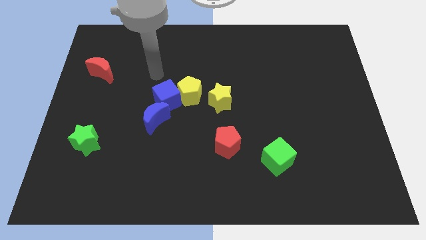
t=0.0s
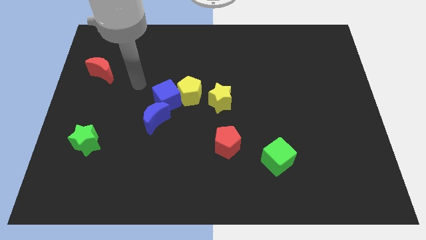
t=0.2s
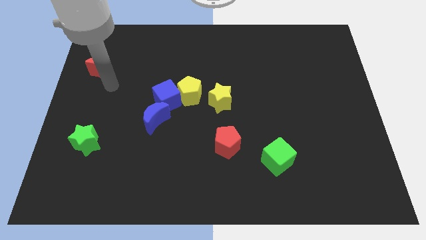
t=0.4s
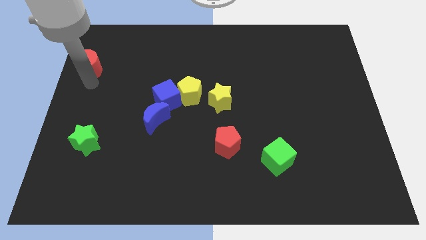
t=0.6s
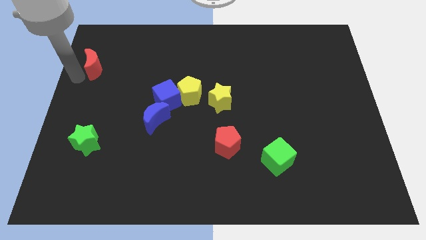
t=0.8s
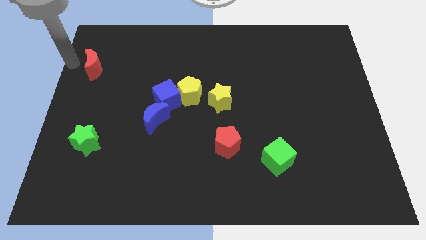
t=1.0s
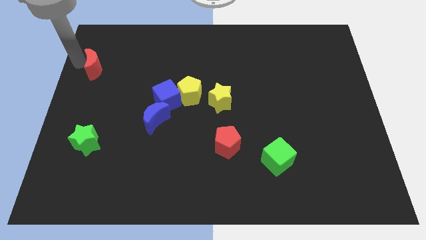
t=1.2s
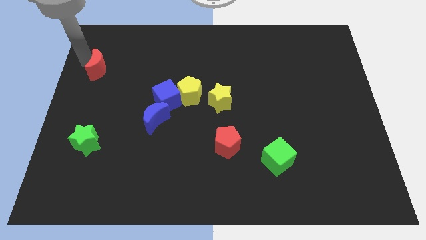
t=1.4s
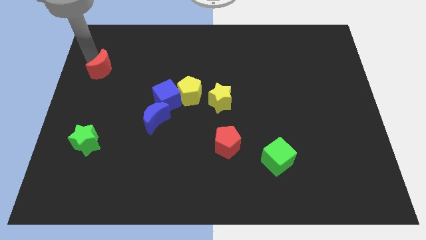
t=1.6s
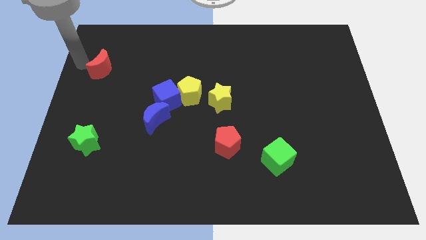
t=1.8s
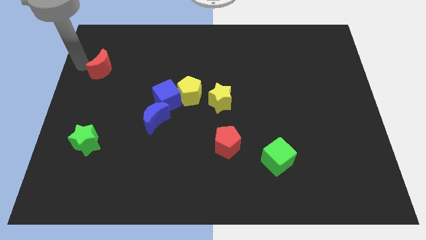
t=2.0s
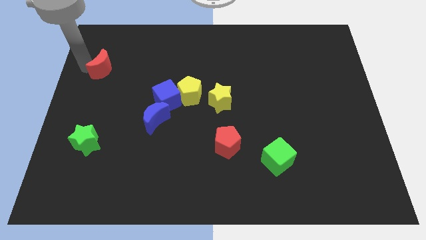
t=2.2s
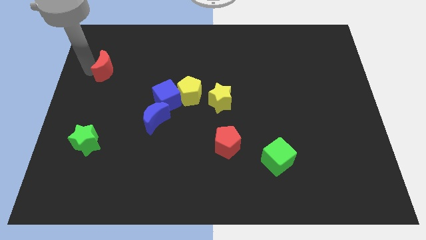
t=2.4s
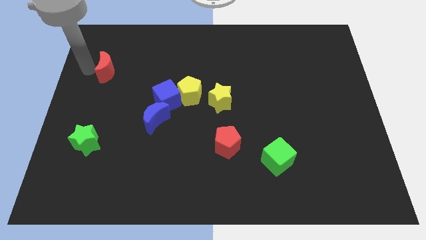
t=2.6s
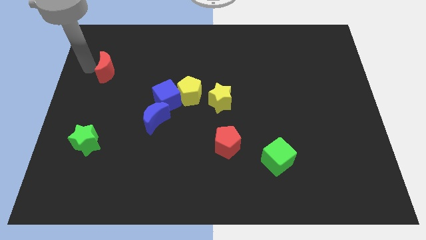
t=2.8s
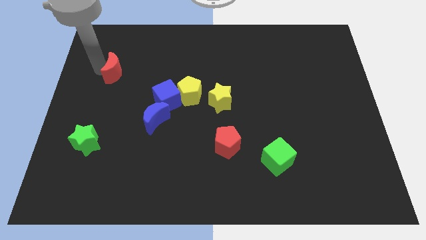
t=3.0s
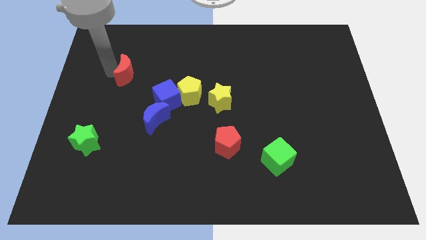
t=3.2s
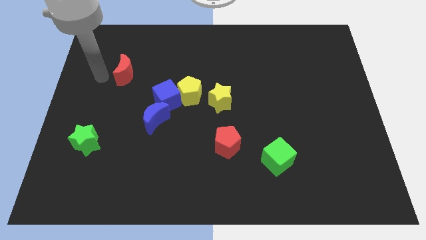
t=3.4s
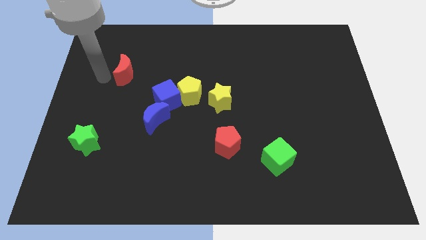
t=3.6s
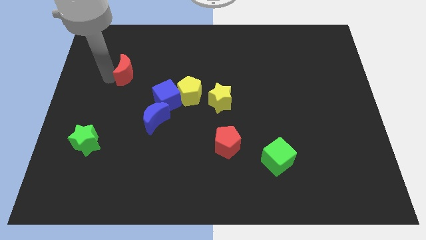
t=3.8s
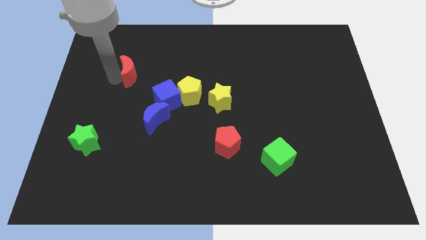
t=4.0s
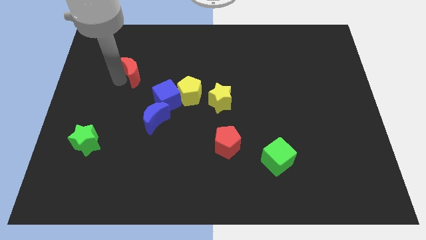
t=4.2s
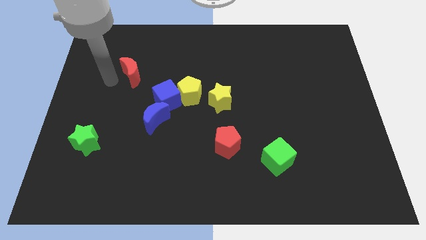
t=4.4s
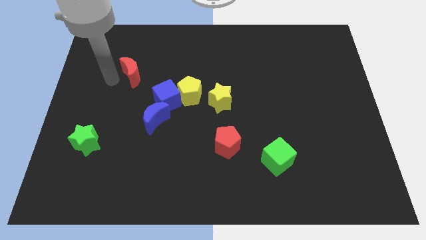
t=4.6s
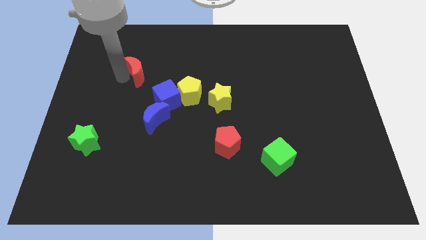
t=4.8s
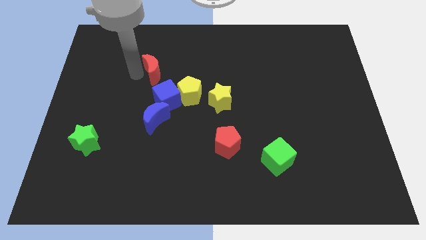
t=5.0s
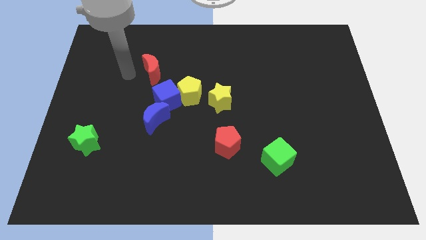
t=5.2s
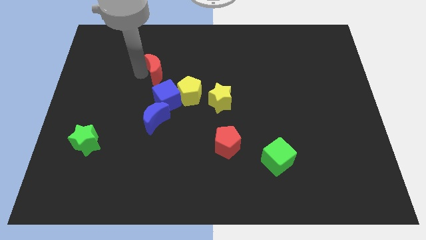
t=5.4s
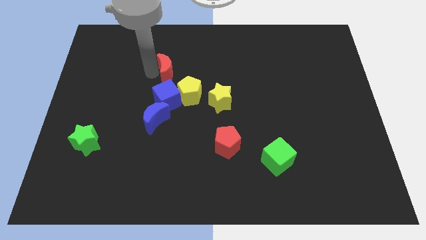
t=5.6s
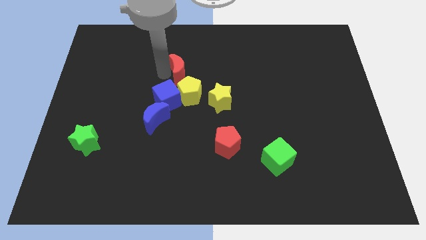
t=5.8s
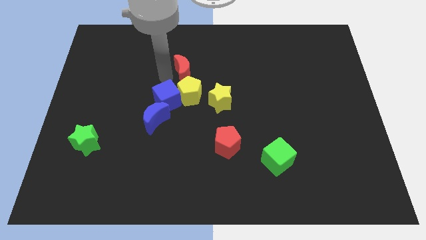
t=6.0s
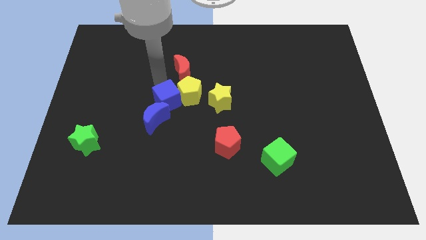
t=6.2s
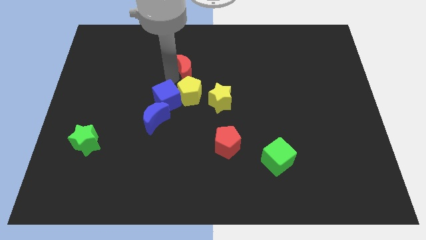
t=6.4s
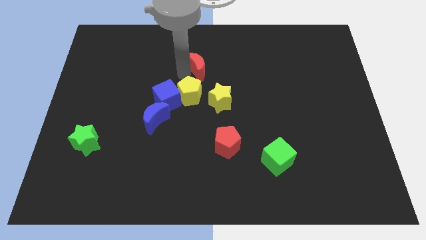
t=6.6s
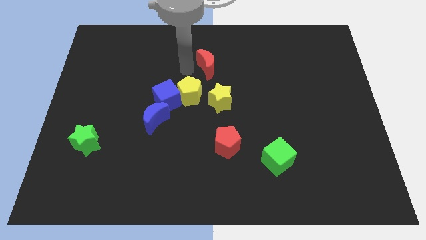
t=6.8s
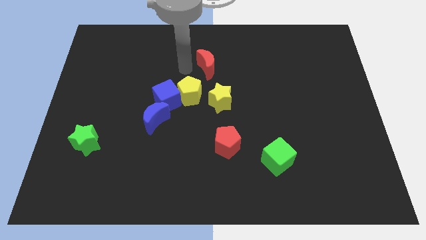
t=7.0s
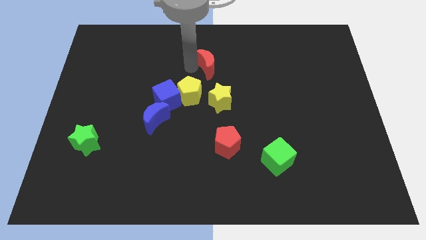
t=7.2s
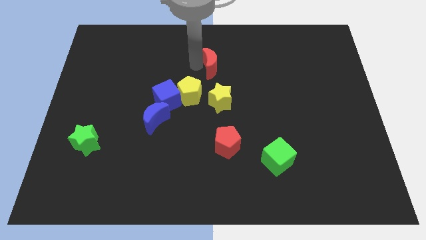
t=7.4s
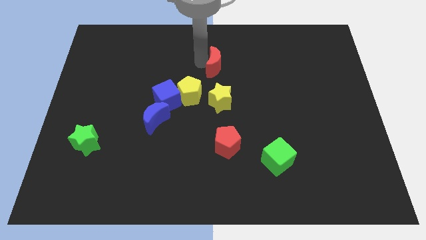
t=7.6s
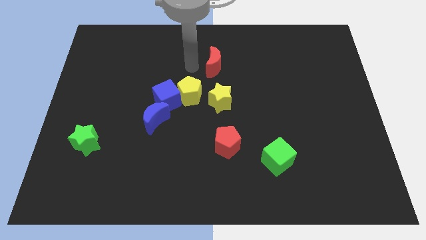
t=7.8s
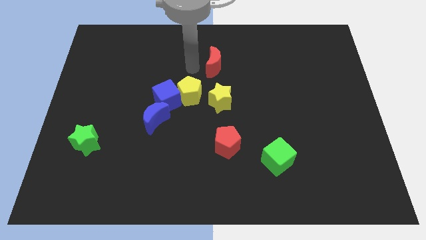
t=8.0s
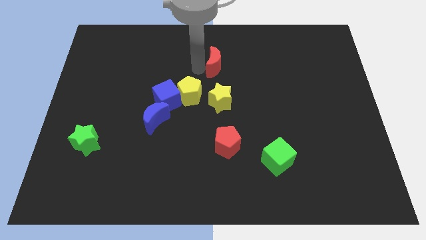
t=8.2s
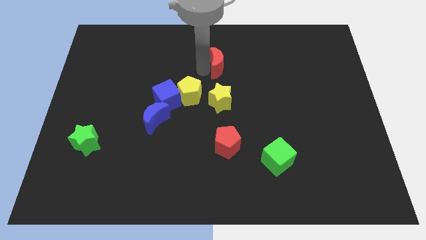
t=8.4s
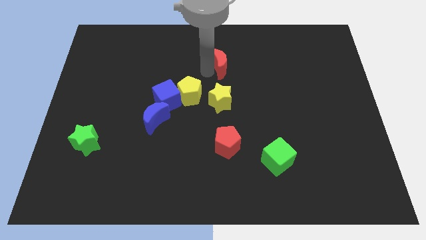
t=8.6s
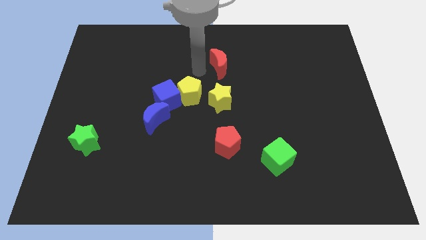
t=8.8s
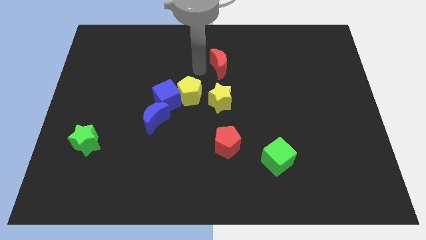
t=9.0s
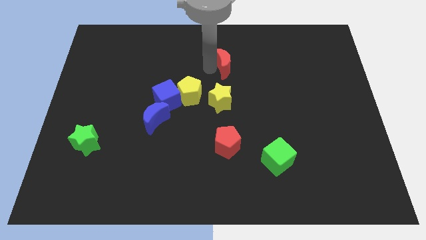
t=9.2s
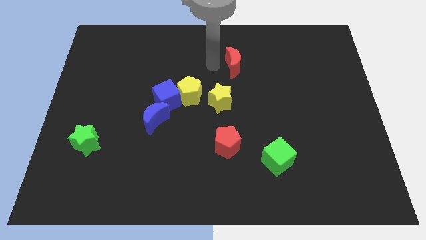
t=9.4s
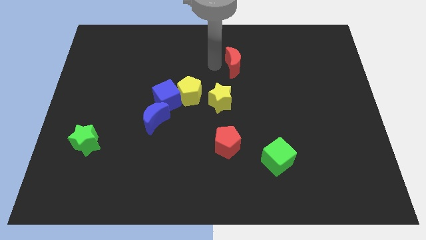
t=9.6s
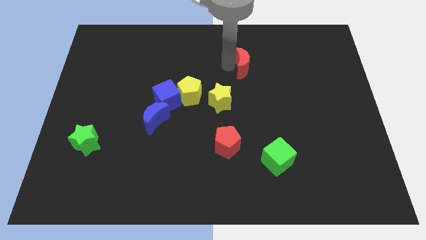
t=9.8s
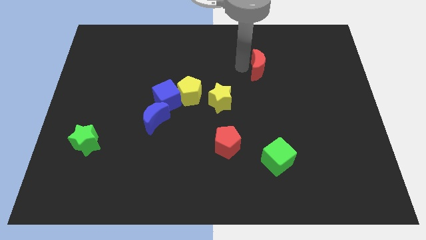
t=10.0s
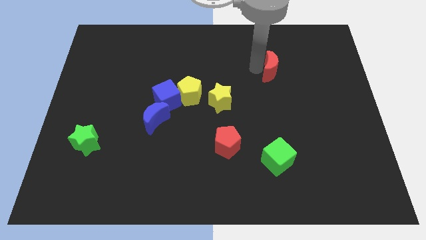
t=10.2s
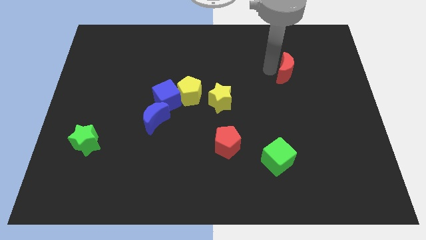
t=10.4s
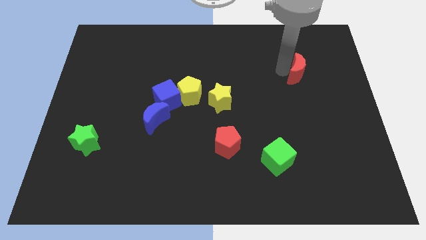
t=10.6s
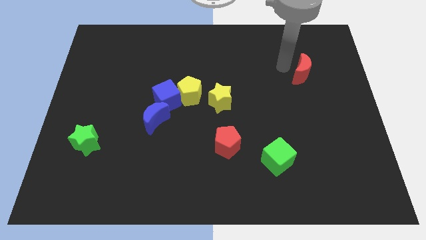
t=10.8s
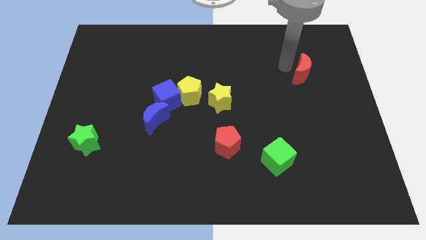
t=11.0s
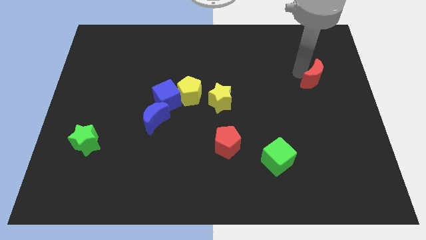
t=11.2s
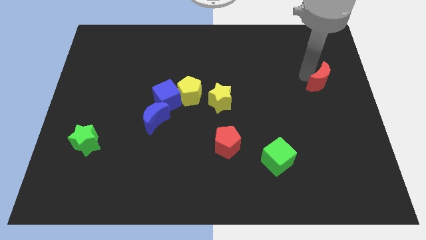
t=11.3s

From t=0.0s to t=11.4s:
move the red moon to the right side of the board

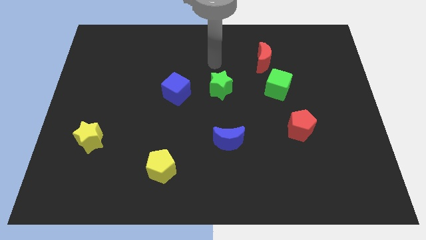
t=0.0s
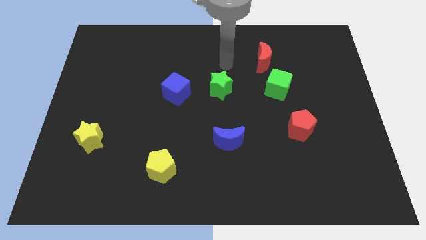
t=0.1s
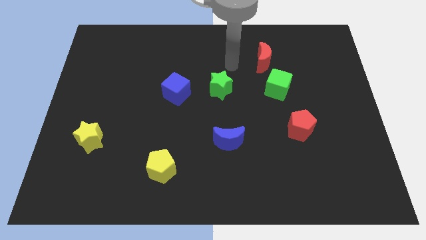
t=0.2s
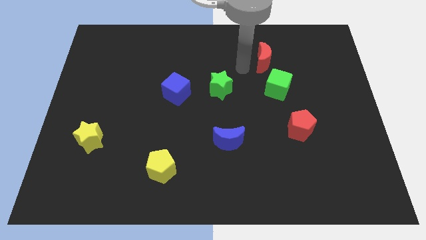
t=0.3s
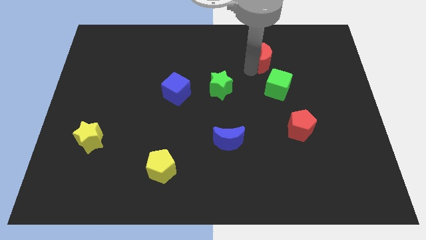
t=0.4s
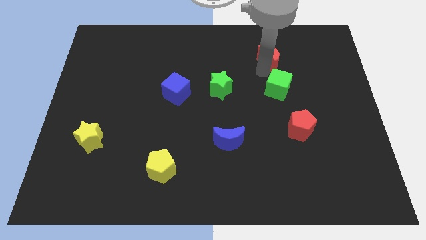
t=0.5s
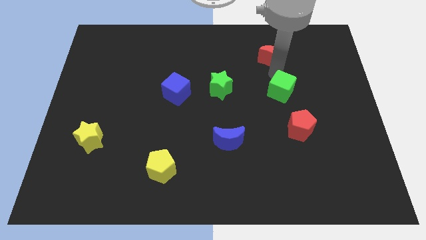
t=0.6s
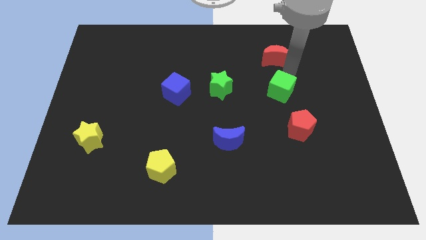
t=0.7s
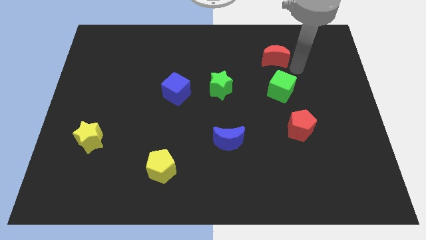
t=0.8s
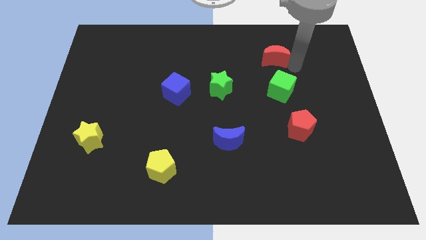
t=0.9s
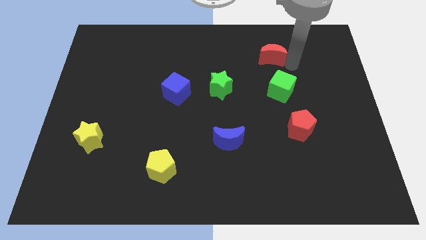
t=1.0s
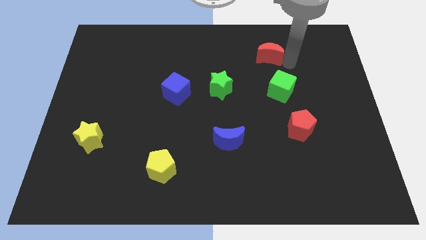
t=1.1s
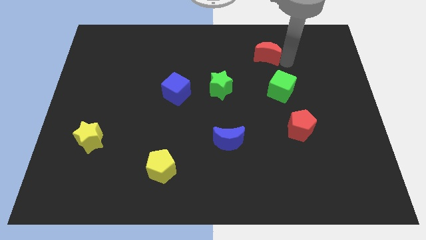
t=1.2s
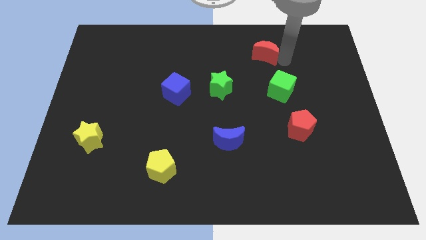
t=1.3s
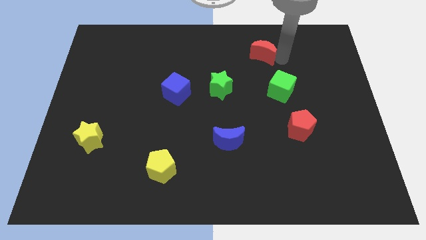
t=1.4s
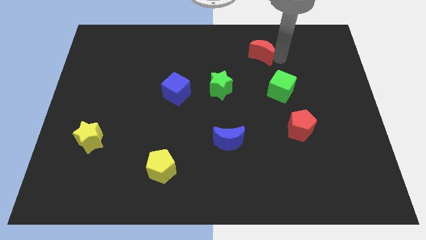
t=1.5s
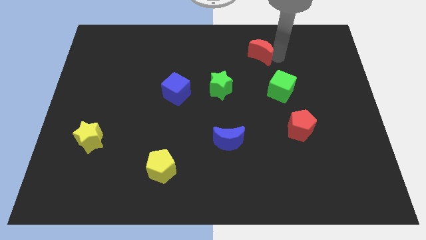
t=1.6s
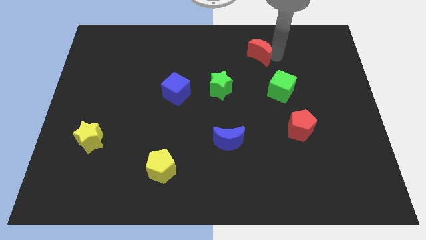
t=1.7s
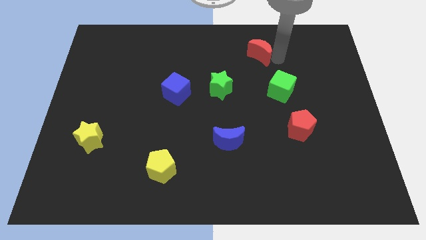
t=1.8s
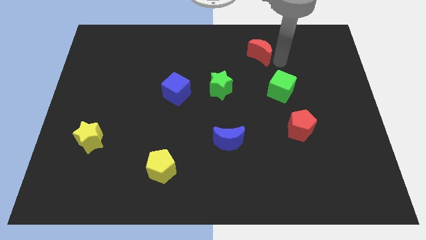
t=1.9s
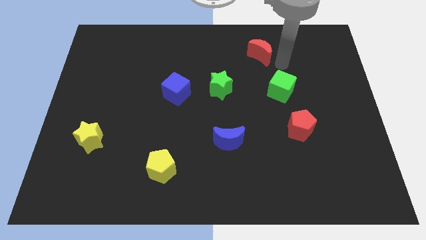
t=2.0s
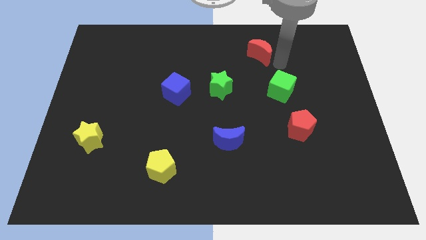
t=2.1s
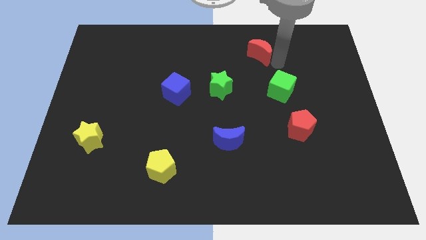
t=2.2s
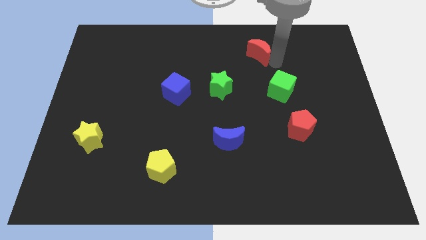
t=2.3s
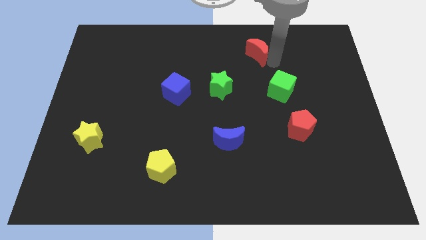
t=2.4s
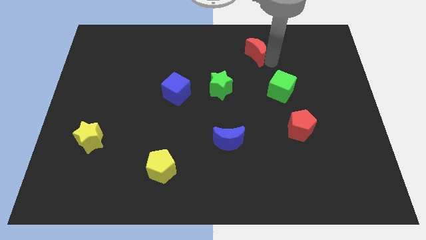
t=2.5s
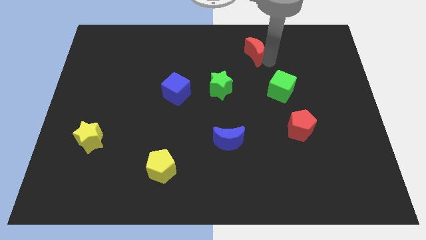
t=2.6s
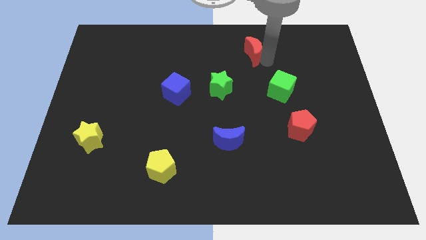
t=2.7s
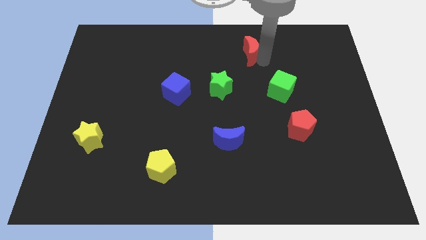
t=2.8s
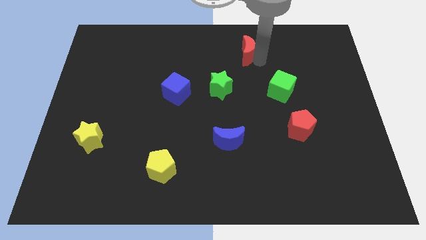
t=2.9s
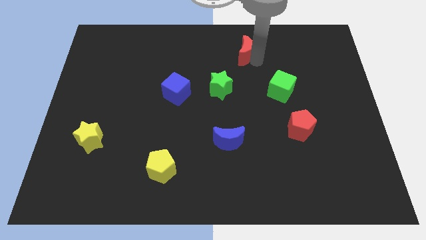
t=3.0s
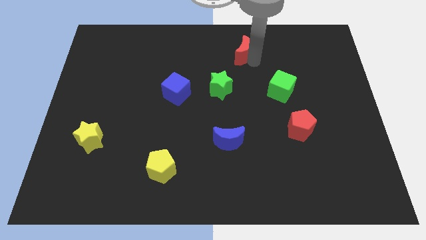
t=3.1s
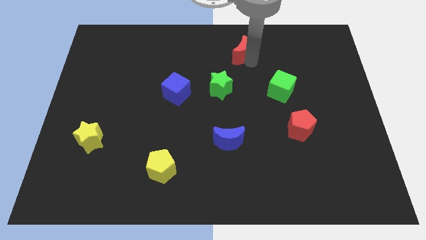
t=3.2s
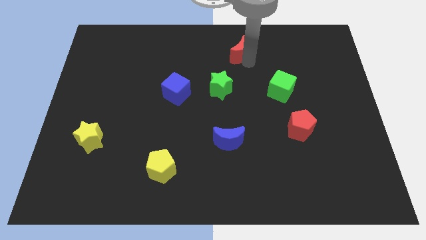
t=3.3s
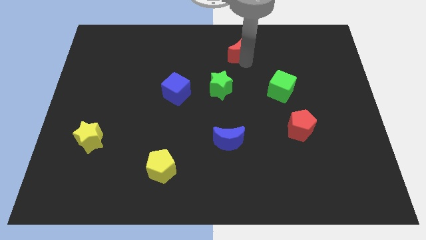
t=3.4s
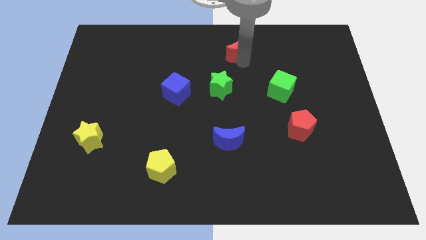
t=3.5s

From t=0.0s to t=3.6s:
move the red moon to the top
